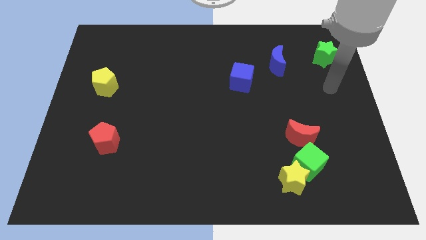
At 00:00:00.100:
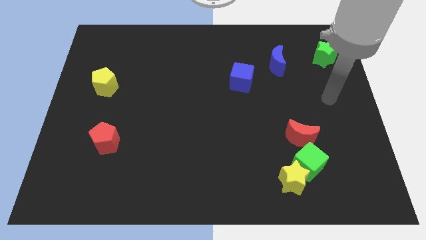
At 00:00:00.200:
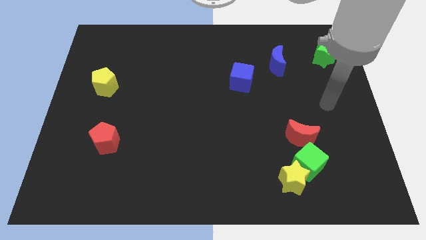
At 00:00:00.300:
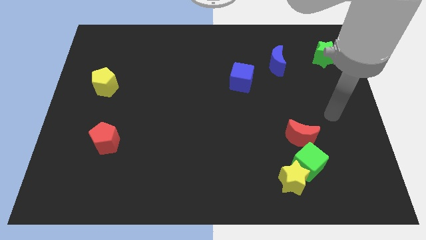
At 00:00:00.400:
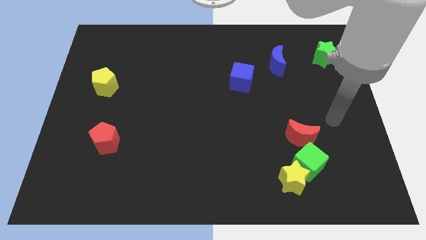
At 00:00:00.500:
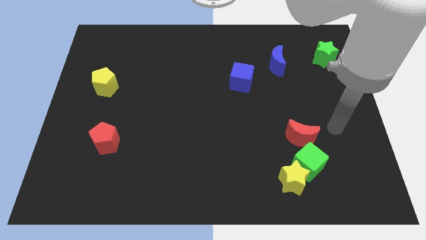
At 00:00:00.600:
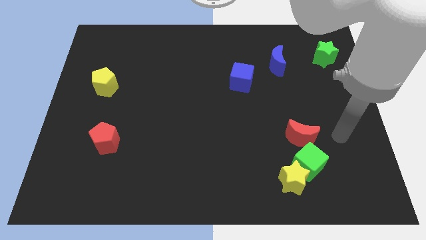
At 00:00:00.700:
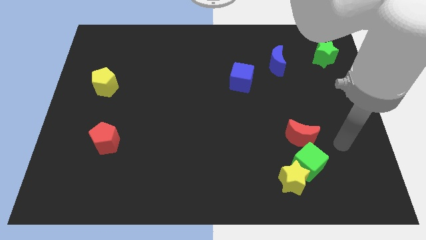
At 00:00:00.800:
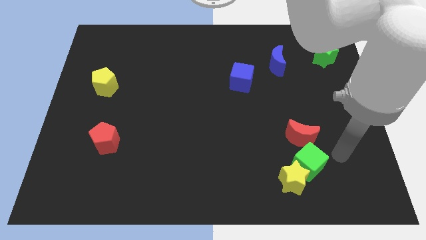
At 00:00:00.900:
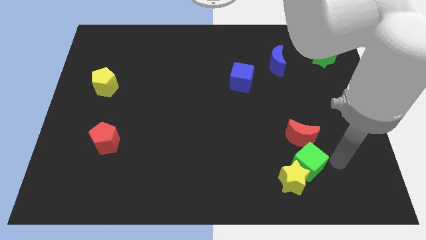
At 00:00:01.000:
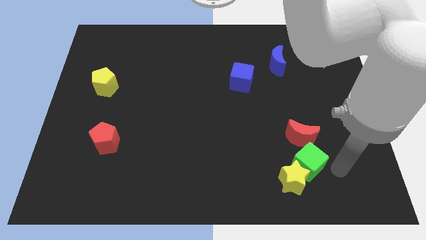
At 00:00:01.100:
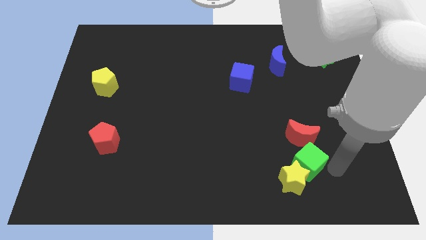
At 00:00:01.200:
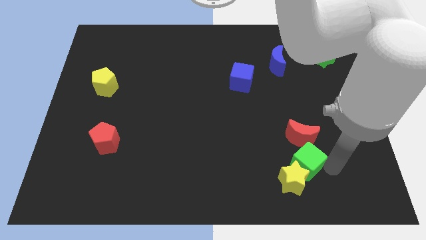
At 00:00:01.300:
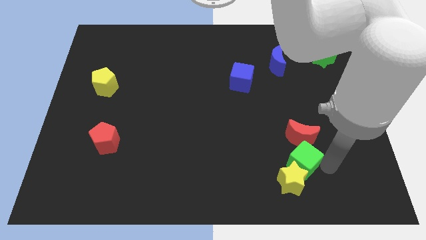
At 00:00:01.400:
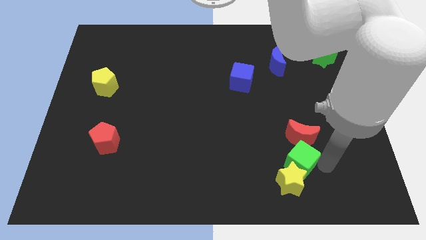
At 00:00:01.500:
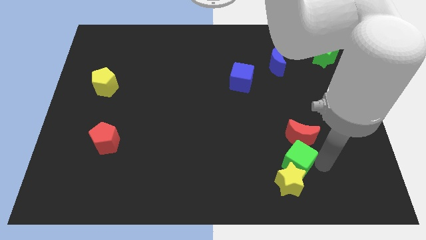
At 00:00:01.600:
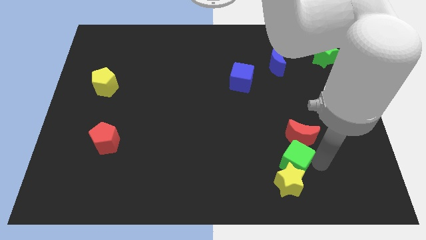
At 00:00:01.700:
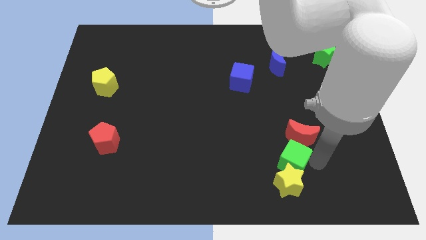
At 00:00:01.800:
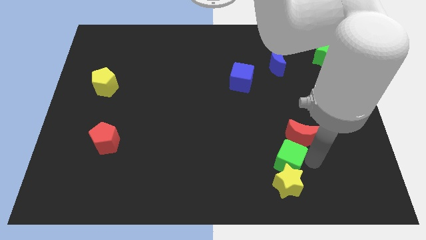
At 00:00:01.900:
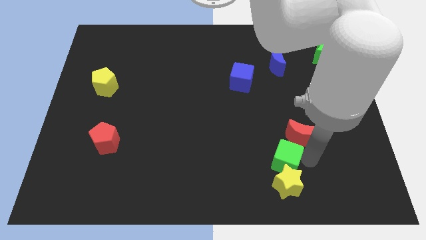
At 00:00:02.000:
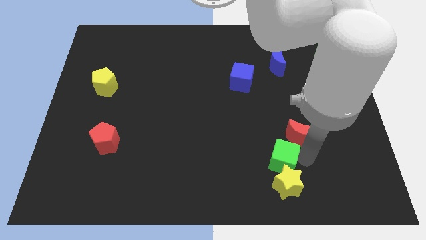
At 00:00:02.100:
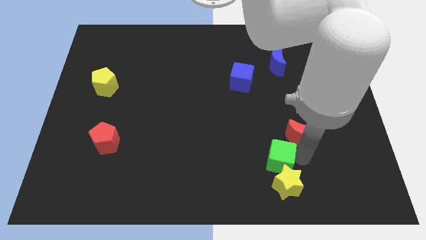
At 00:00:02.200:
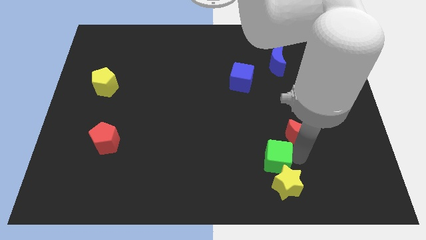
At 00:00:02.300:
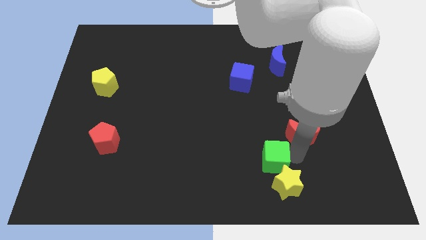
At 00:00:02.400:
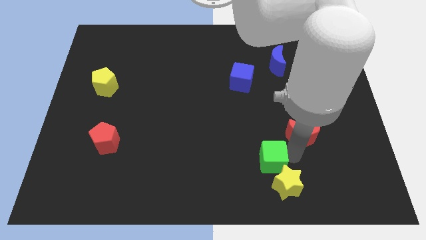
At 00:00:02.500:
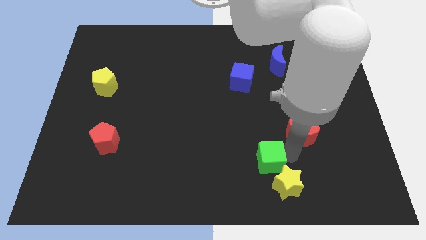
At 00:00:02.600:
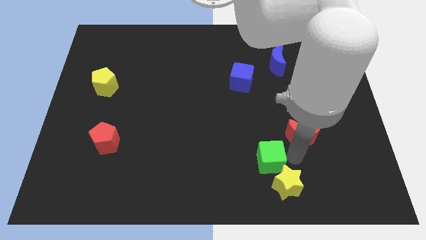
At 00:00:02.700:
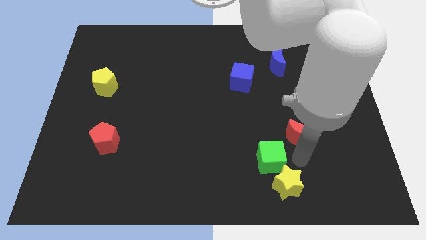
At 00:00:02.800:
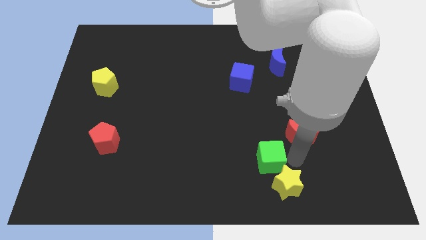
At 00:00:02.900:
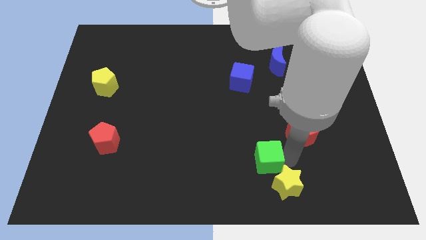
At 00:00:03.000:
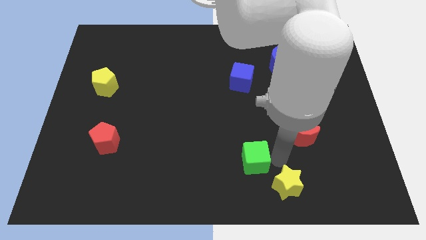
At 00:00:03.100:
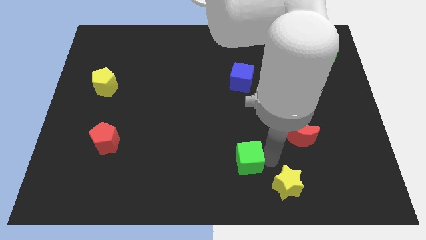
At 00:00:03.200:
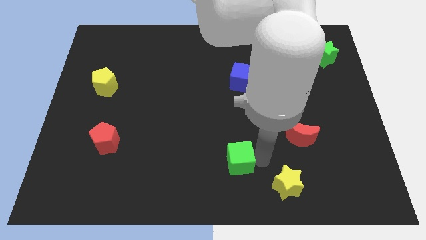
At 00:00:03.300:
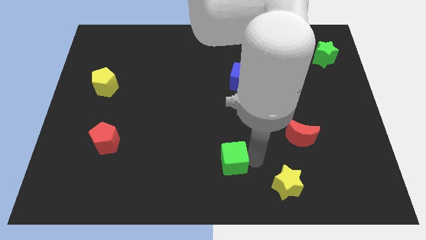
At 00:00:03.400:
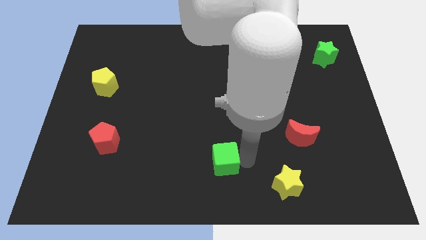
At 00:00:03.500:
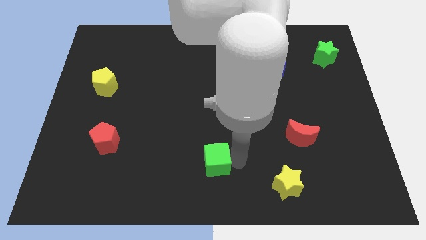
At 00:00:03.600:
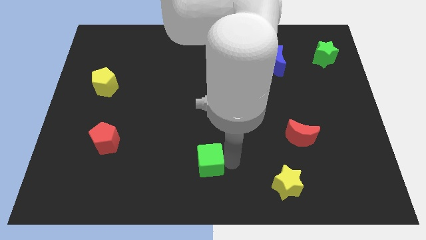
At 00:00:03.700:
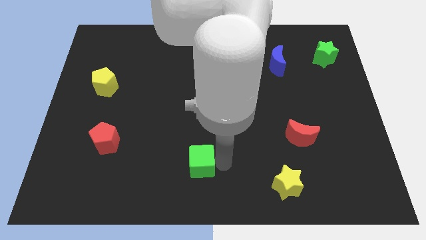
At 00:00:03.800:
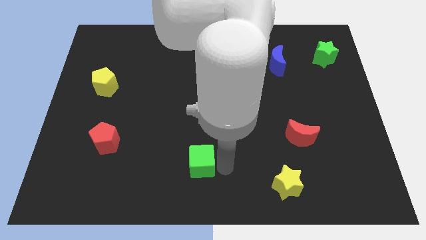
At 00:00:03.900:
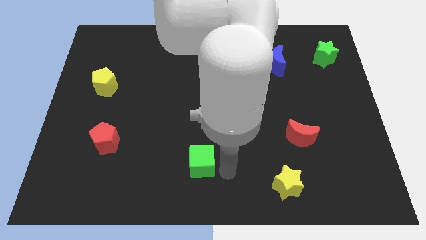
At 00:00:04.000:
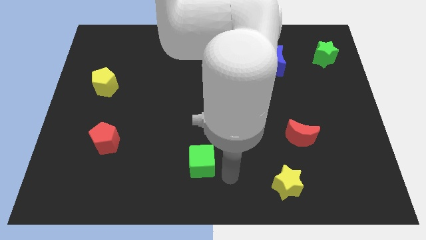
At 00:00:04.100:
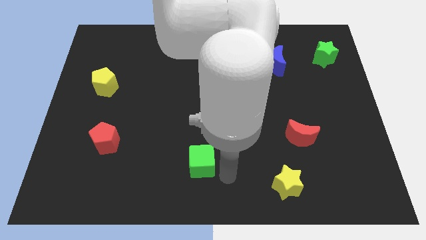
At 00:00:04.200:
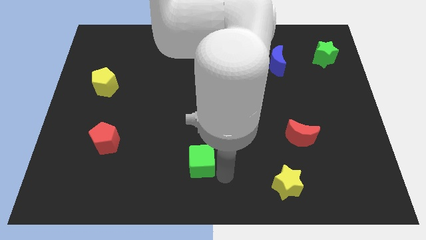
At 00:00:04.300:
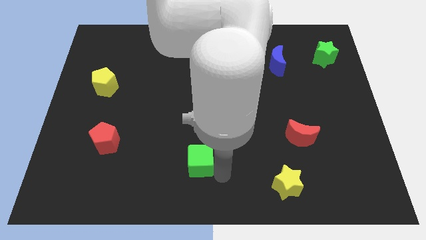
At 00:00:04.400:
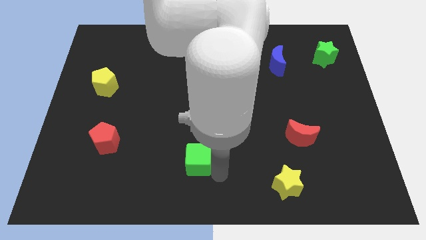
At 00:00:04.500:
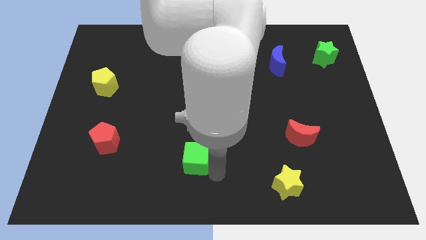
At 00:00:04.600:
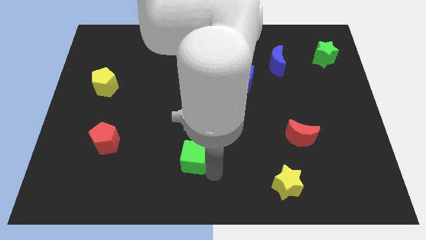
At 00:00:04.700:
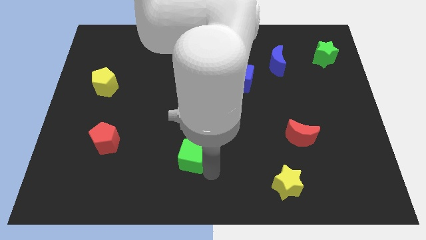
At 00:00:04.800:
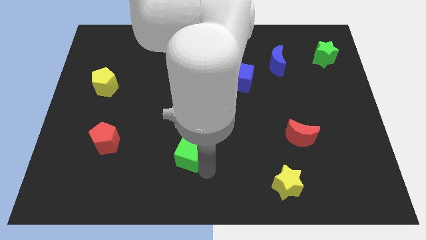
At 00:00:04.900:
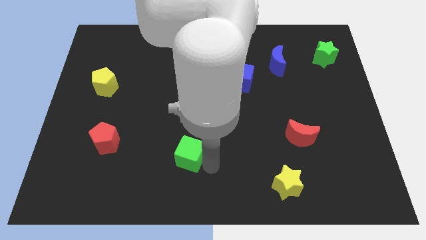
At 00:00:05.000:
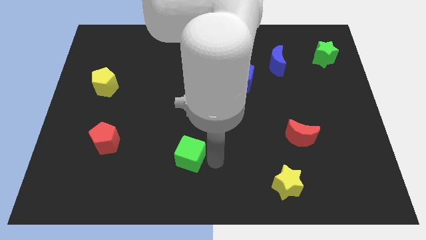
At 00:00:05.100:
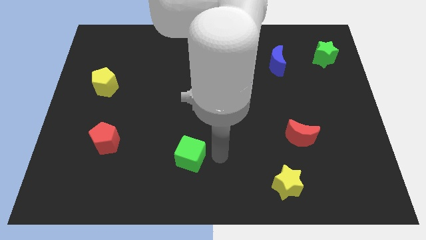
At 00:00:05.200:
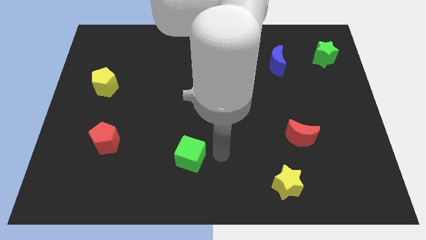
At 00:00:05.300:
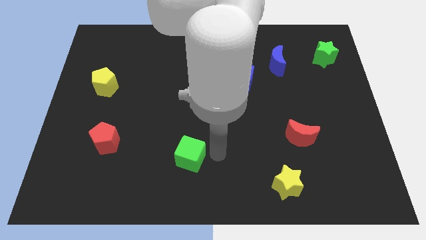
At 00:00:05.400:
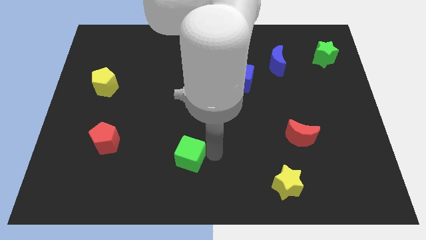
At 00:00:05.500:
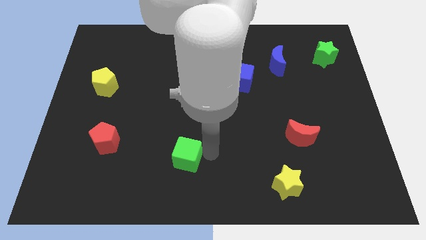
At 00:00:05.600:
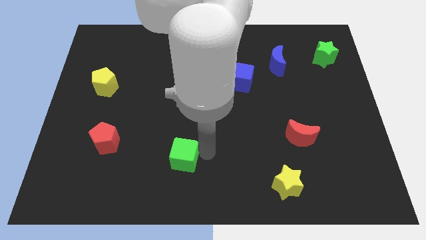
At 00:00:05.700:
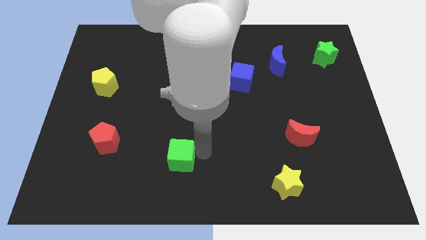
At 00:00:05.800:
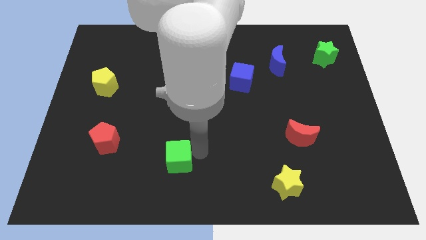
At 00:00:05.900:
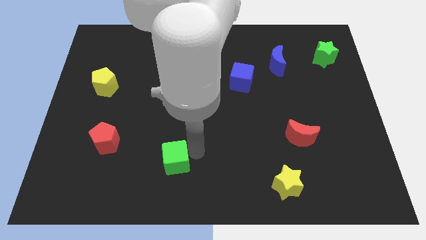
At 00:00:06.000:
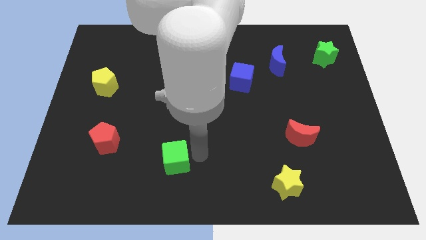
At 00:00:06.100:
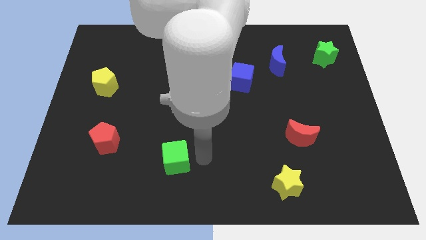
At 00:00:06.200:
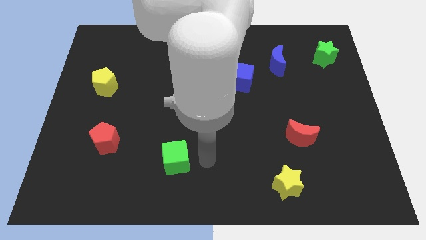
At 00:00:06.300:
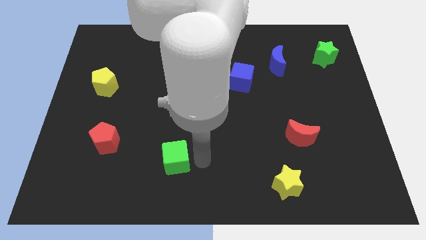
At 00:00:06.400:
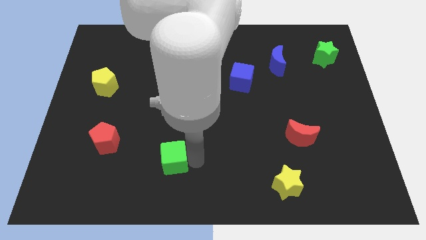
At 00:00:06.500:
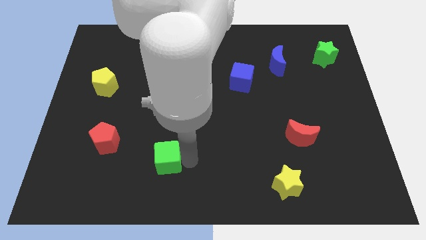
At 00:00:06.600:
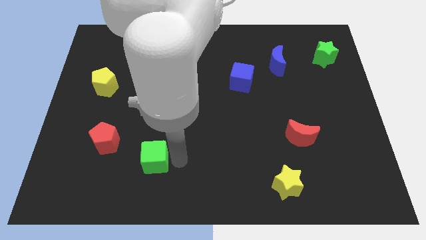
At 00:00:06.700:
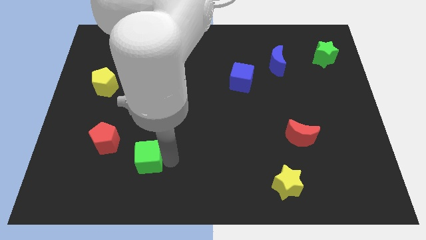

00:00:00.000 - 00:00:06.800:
put the green cube diagonally down and to the right of the red pentagon
